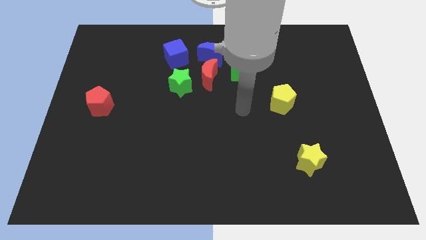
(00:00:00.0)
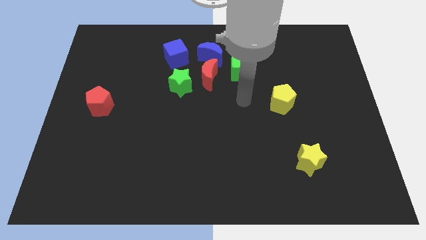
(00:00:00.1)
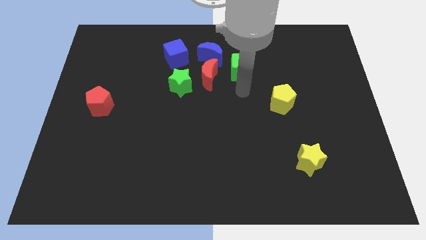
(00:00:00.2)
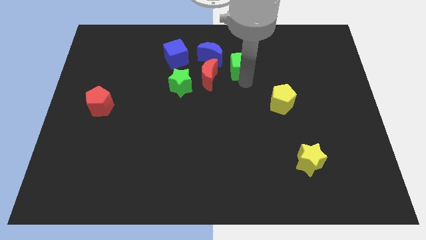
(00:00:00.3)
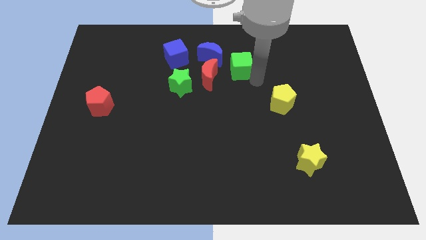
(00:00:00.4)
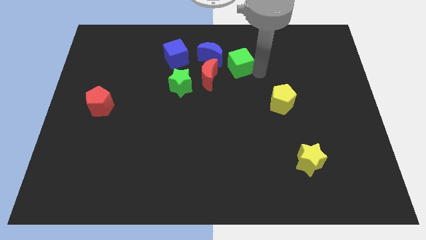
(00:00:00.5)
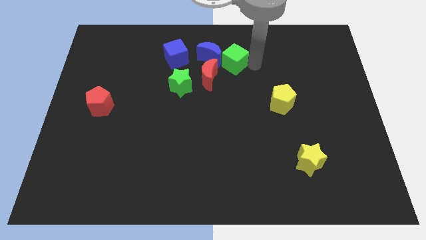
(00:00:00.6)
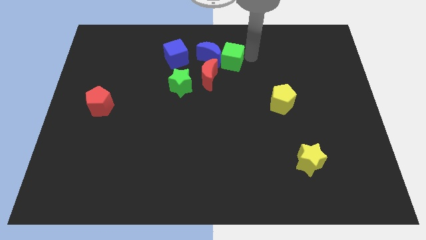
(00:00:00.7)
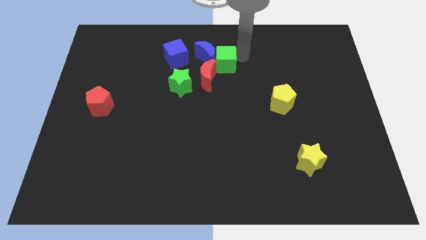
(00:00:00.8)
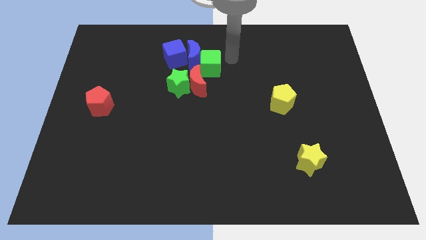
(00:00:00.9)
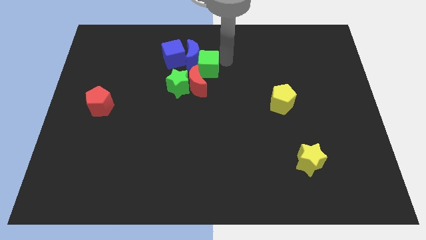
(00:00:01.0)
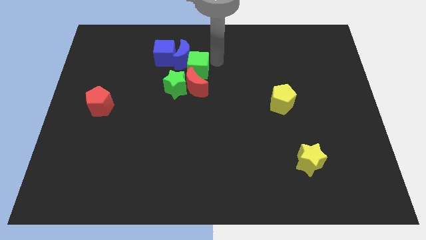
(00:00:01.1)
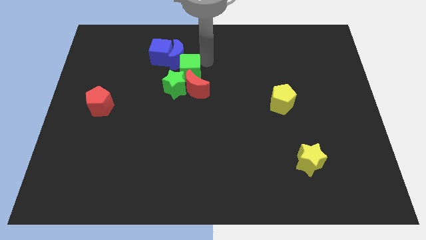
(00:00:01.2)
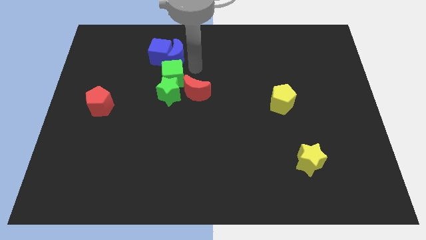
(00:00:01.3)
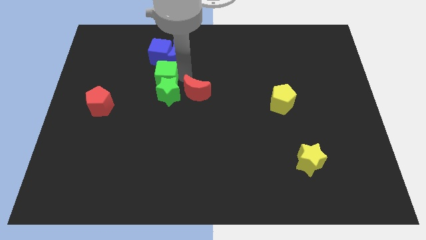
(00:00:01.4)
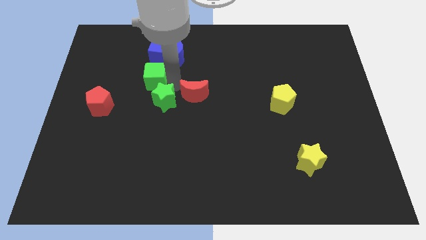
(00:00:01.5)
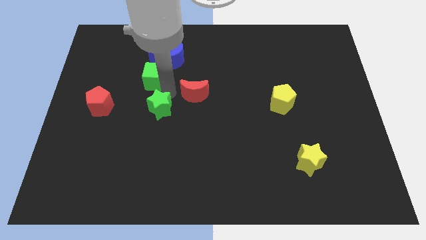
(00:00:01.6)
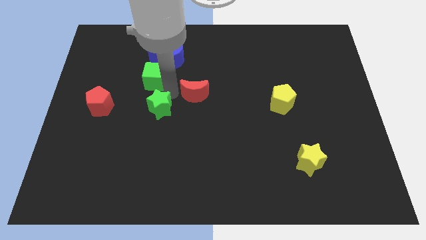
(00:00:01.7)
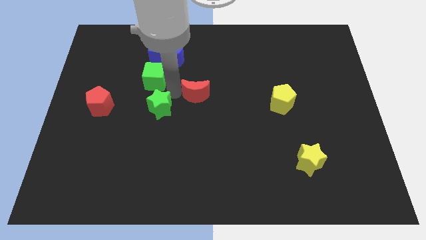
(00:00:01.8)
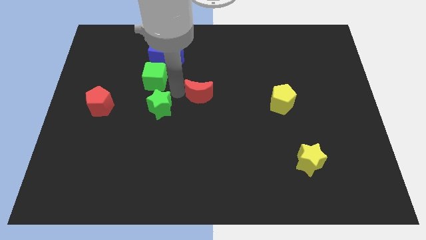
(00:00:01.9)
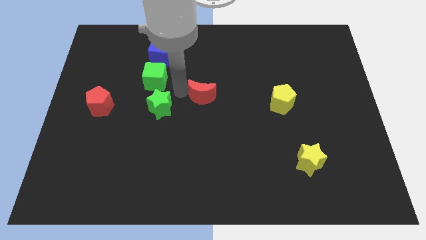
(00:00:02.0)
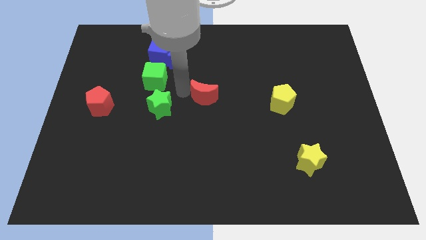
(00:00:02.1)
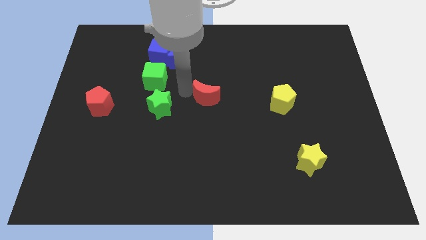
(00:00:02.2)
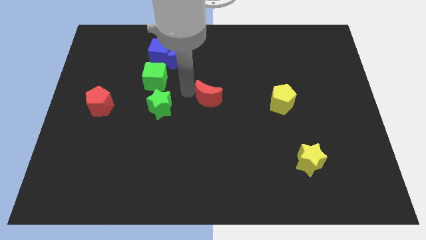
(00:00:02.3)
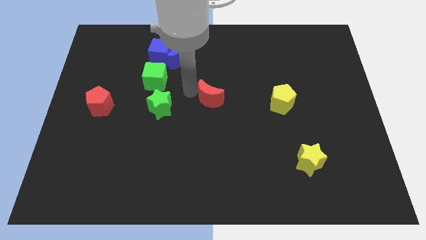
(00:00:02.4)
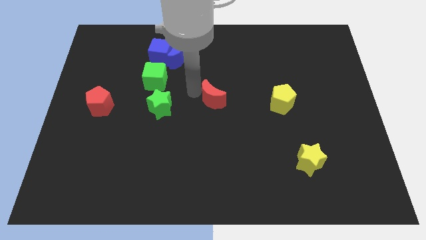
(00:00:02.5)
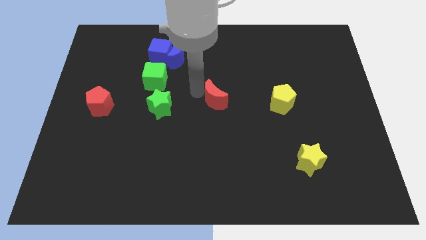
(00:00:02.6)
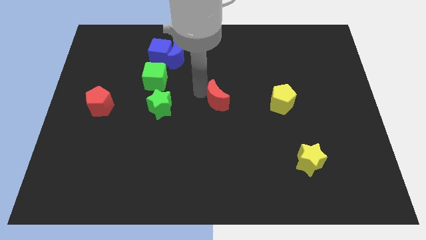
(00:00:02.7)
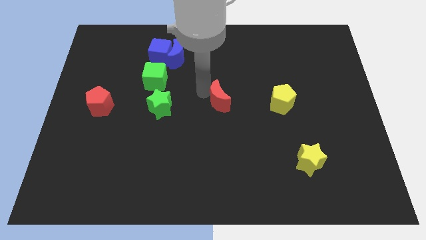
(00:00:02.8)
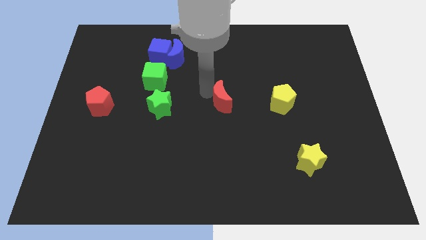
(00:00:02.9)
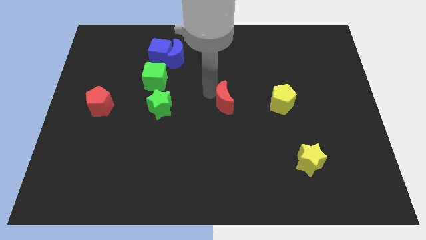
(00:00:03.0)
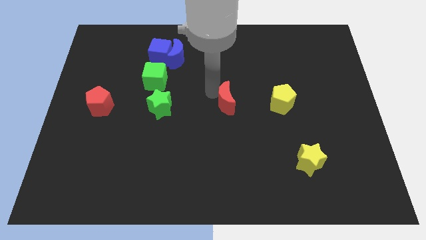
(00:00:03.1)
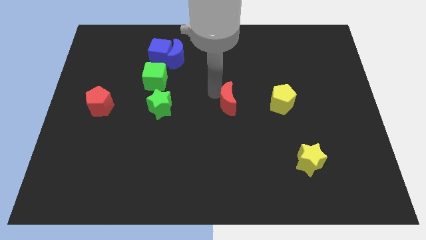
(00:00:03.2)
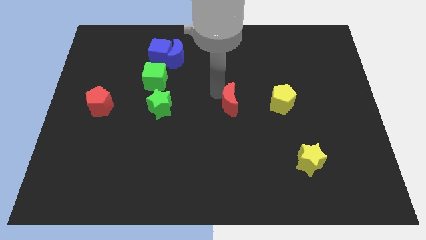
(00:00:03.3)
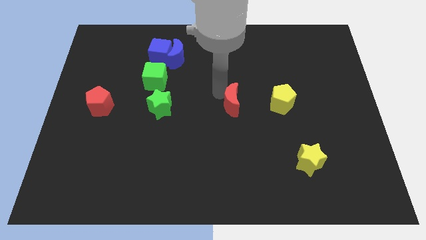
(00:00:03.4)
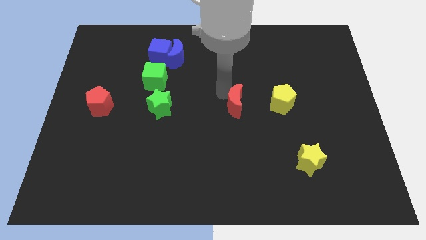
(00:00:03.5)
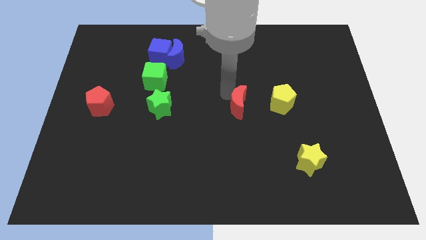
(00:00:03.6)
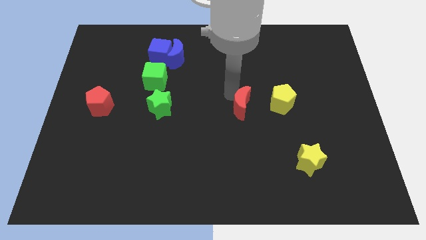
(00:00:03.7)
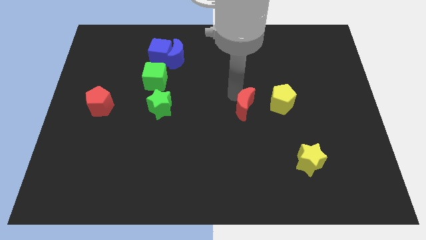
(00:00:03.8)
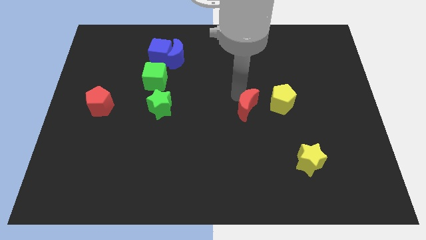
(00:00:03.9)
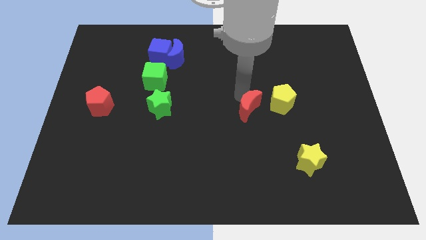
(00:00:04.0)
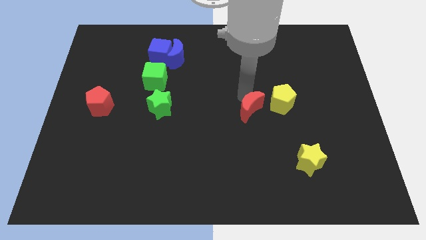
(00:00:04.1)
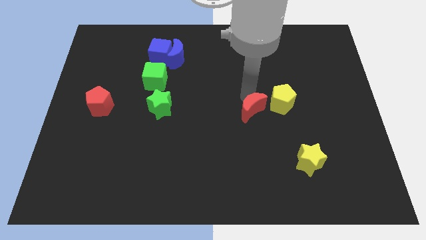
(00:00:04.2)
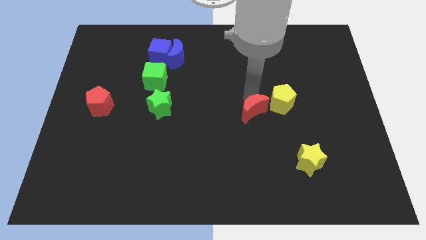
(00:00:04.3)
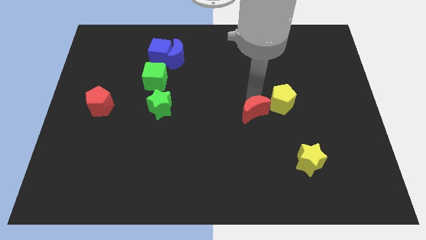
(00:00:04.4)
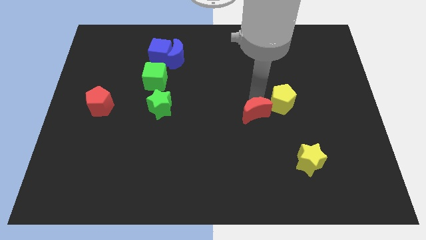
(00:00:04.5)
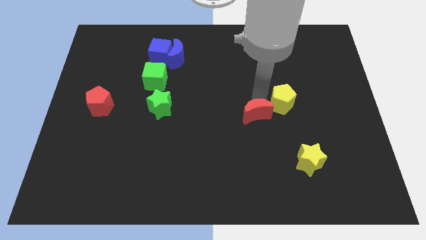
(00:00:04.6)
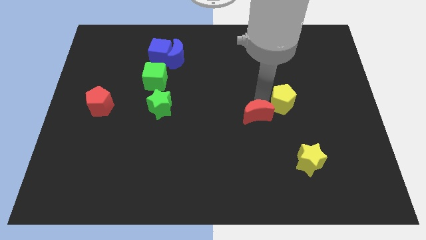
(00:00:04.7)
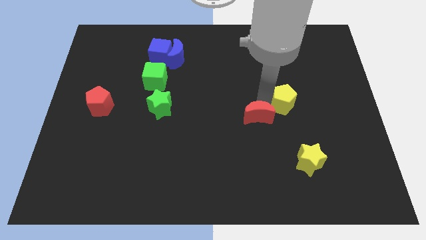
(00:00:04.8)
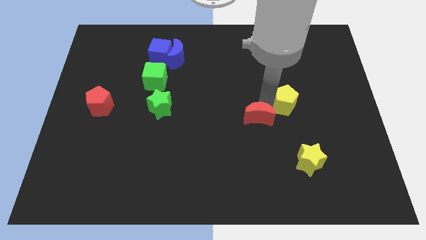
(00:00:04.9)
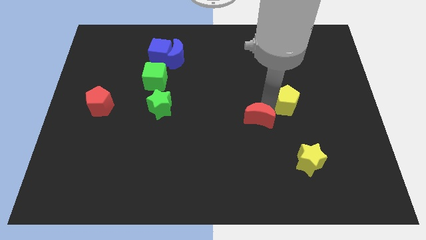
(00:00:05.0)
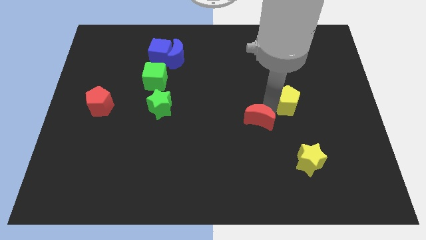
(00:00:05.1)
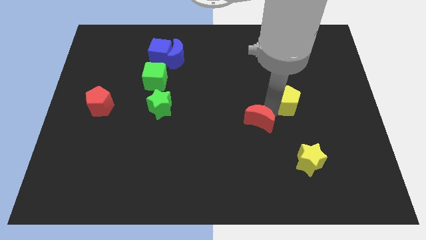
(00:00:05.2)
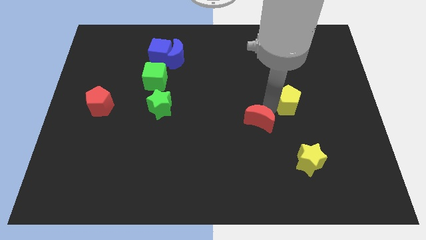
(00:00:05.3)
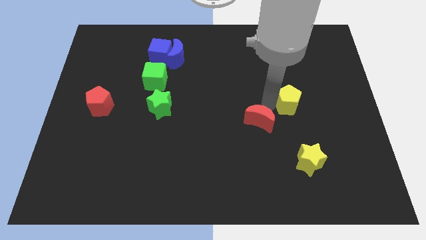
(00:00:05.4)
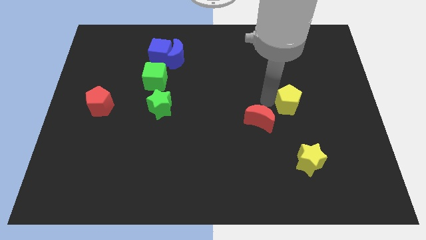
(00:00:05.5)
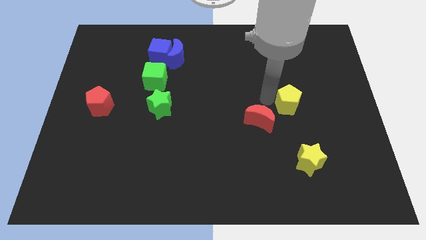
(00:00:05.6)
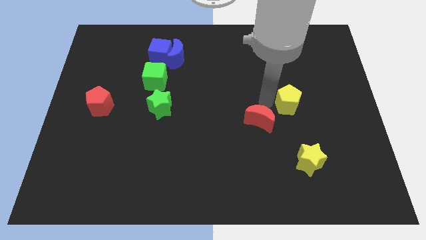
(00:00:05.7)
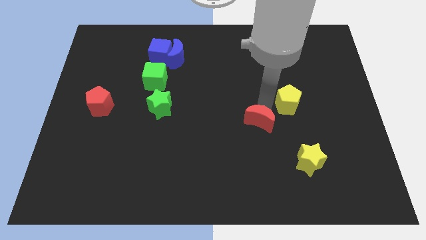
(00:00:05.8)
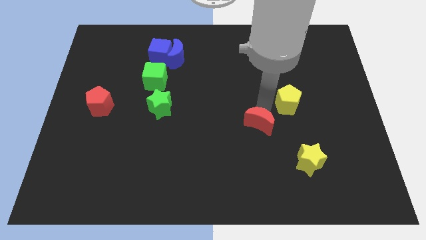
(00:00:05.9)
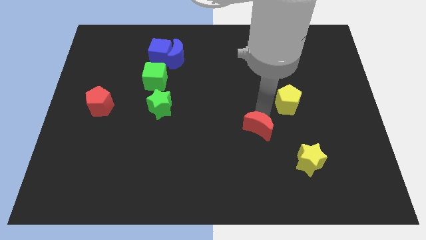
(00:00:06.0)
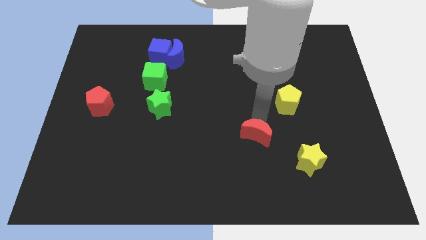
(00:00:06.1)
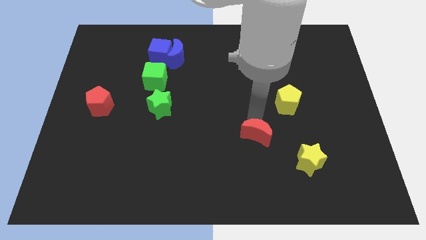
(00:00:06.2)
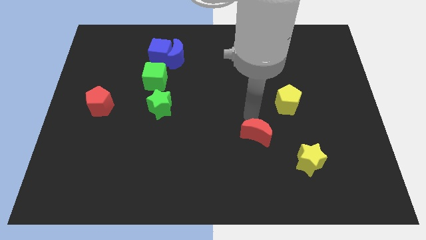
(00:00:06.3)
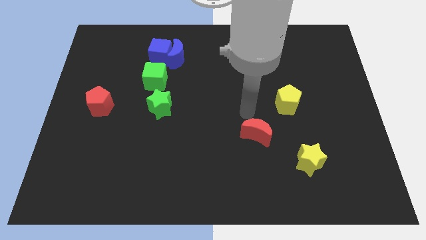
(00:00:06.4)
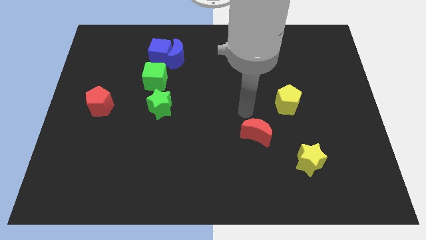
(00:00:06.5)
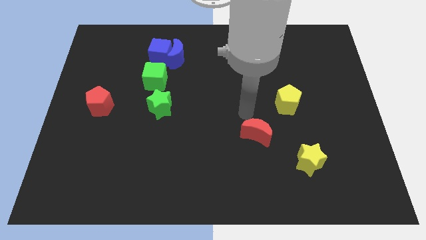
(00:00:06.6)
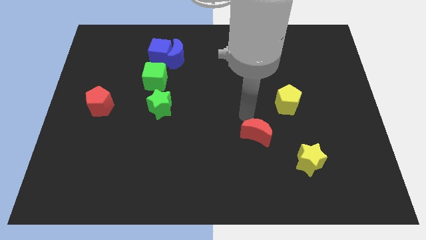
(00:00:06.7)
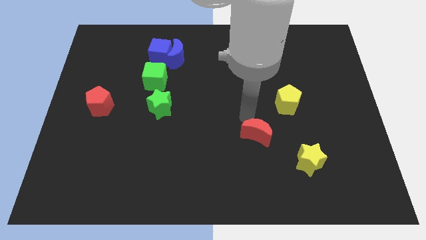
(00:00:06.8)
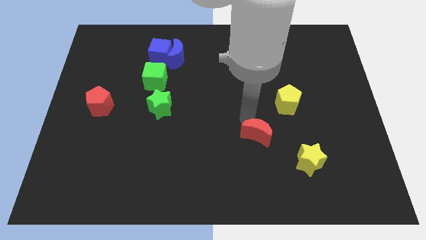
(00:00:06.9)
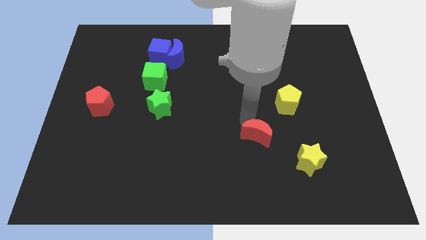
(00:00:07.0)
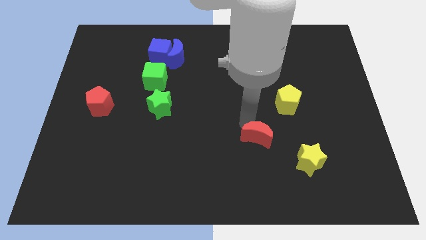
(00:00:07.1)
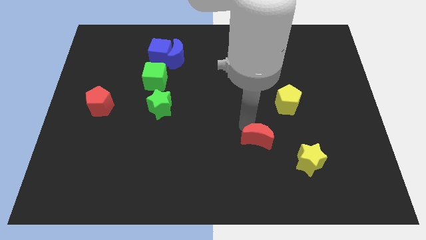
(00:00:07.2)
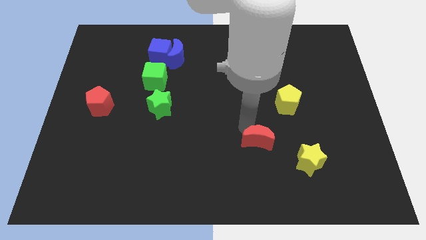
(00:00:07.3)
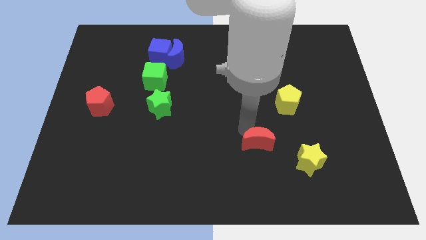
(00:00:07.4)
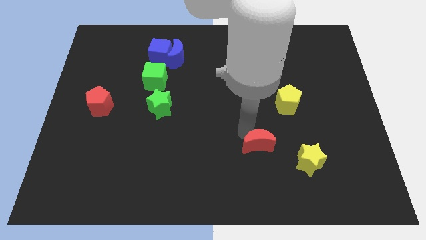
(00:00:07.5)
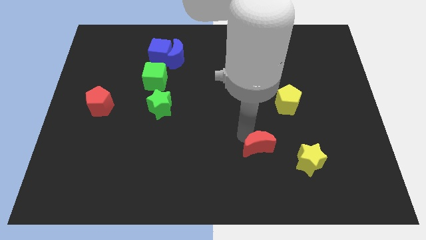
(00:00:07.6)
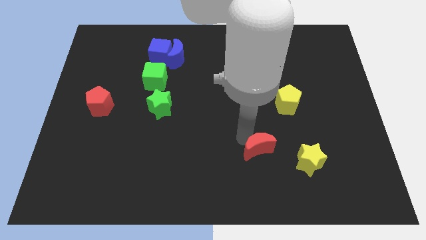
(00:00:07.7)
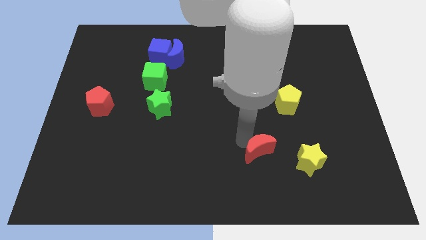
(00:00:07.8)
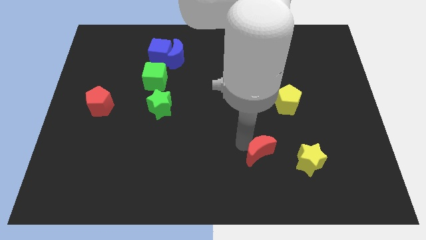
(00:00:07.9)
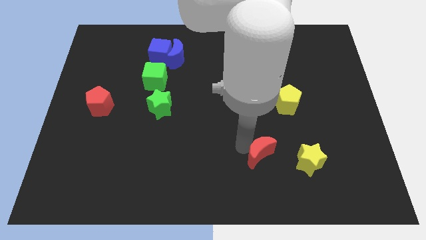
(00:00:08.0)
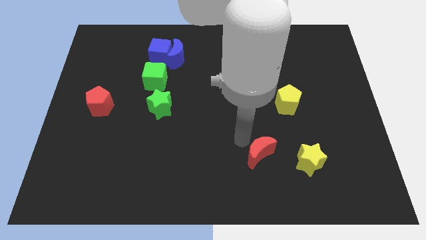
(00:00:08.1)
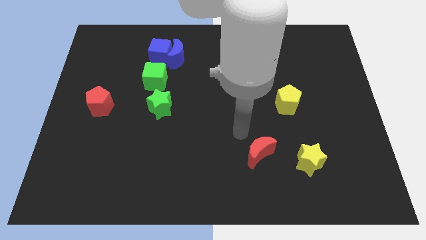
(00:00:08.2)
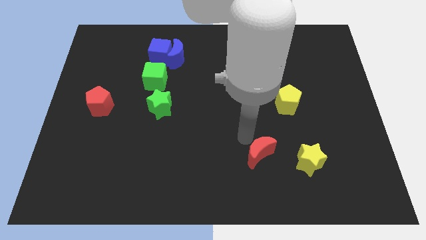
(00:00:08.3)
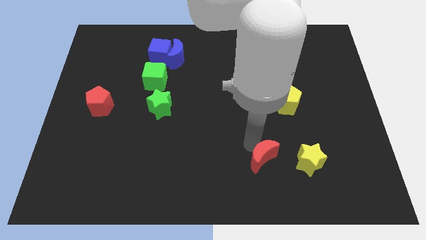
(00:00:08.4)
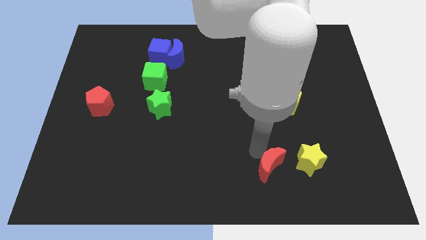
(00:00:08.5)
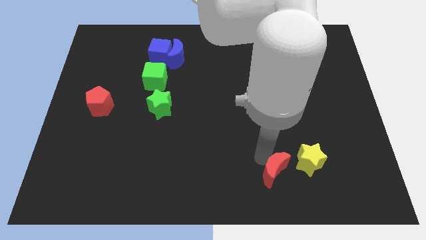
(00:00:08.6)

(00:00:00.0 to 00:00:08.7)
push the red moon to the bottom left of the yellow star
